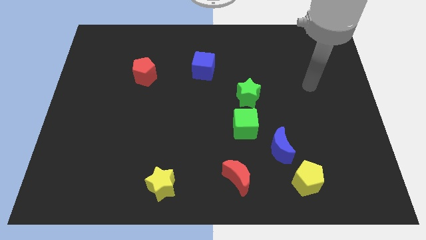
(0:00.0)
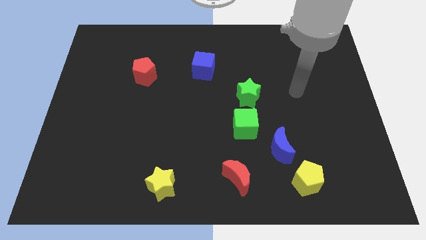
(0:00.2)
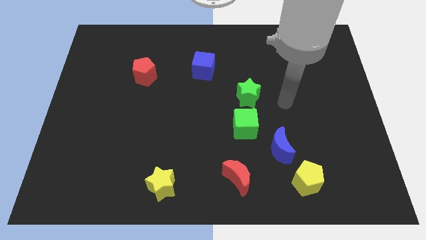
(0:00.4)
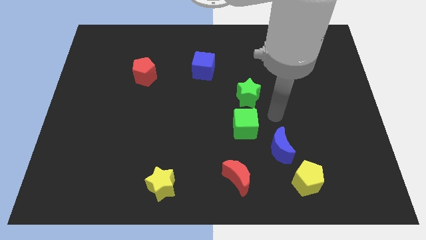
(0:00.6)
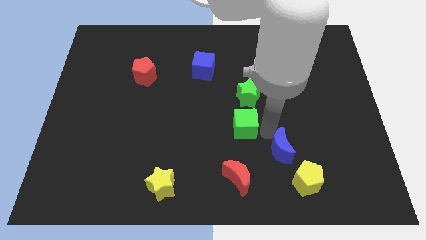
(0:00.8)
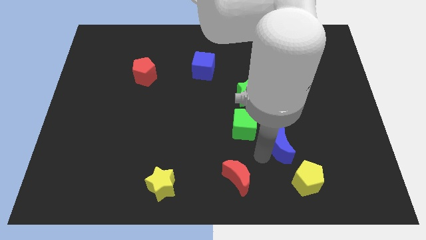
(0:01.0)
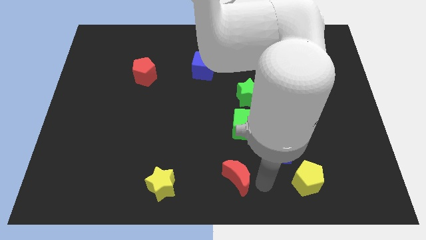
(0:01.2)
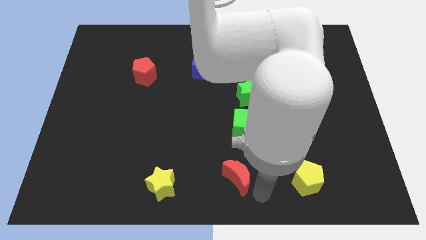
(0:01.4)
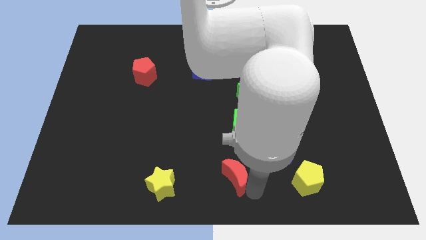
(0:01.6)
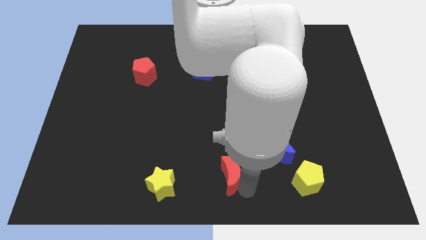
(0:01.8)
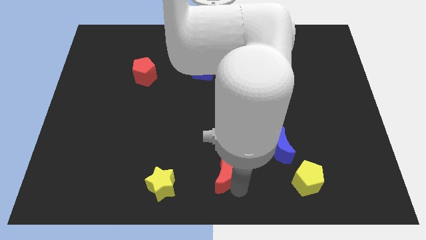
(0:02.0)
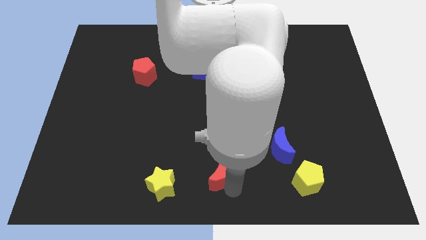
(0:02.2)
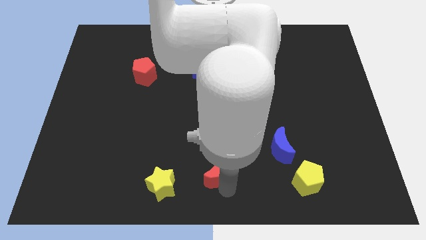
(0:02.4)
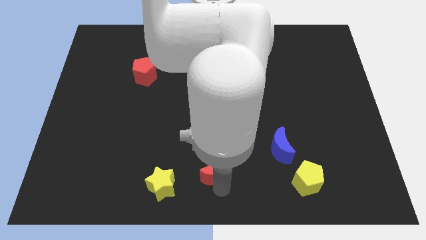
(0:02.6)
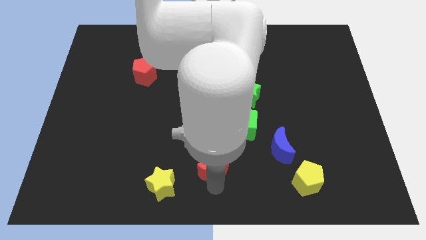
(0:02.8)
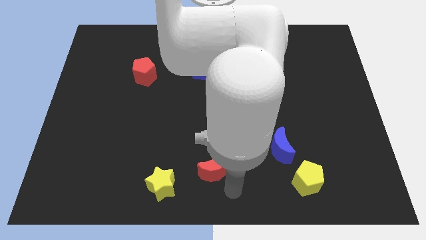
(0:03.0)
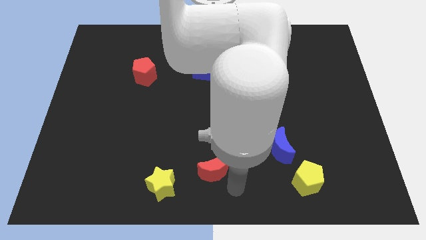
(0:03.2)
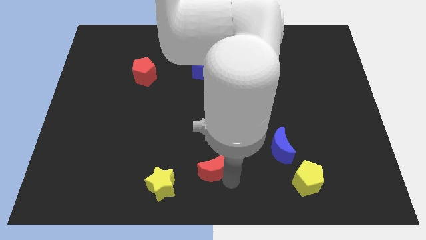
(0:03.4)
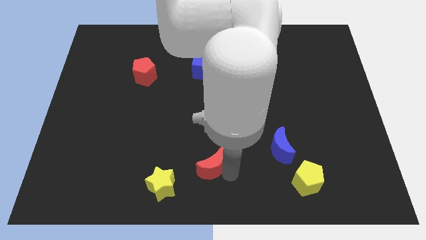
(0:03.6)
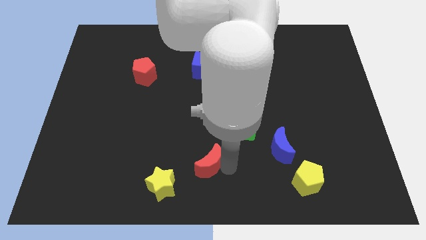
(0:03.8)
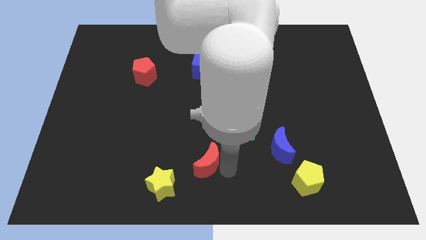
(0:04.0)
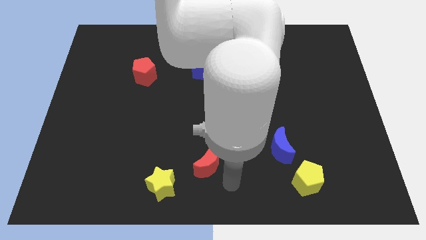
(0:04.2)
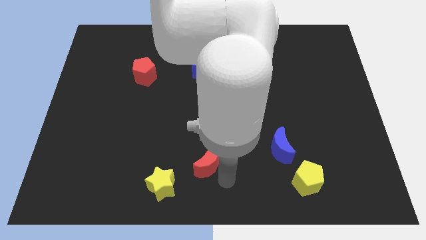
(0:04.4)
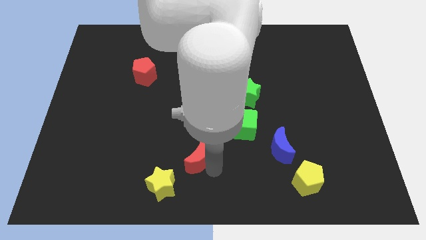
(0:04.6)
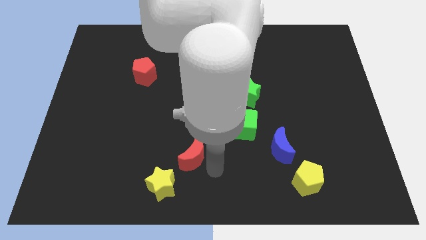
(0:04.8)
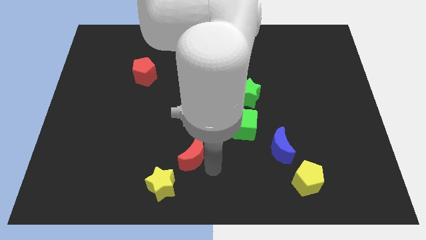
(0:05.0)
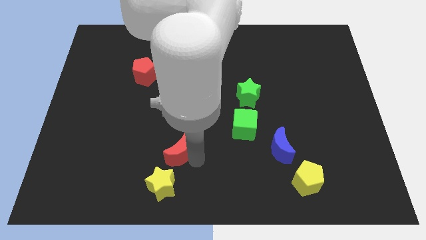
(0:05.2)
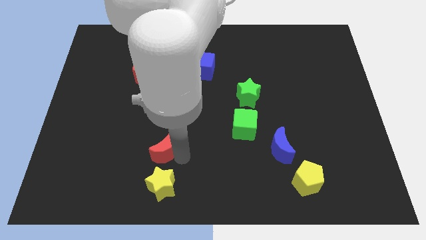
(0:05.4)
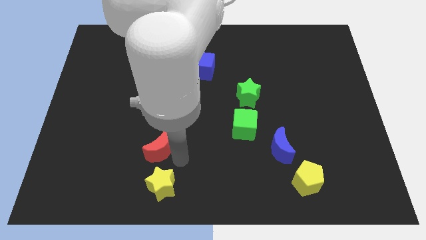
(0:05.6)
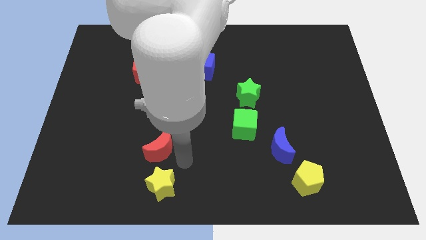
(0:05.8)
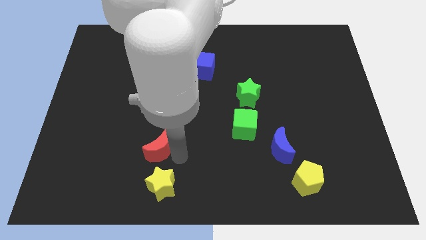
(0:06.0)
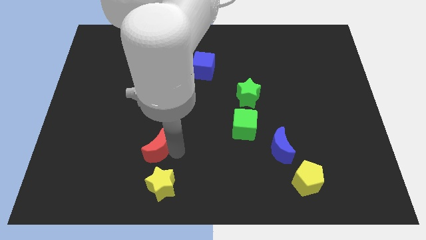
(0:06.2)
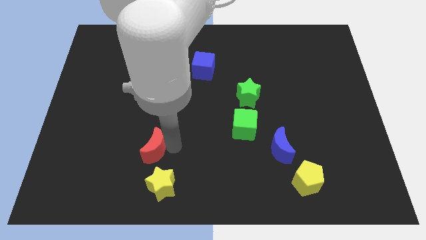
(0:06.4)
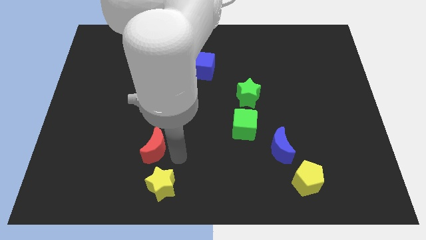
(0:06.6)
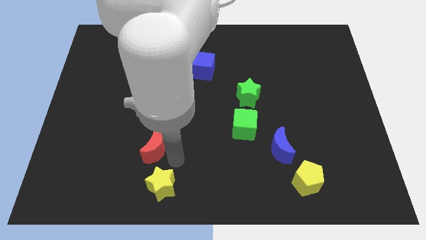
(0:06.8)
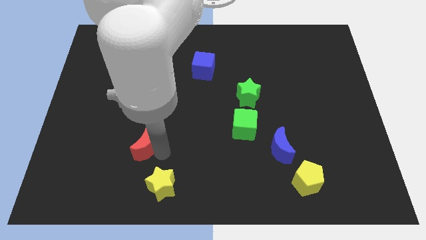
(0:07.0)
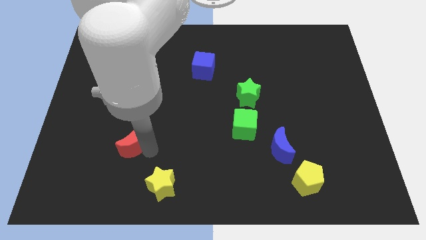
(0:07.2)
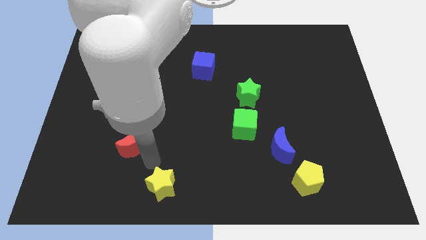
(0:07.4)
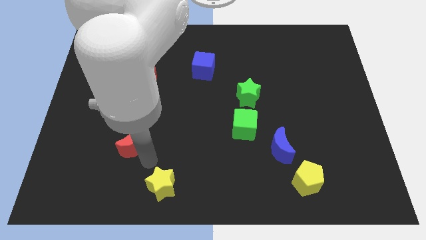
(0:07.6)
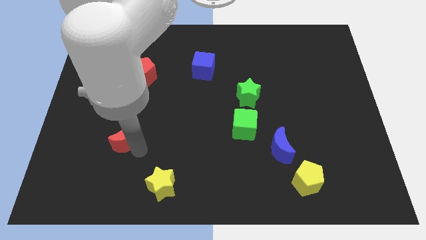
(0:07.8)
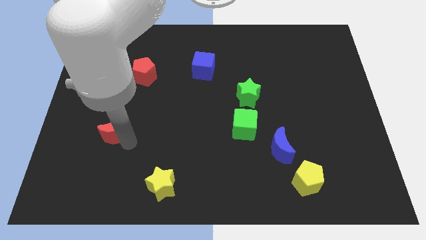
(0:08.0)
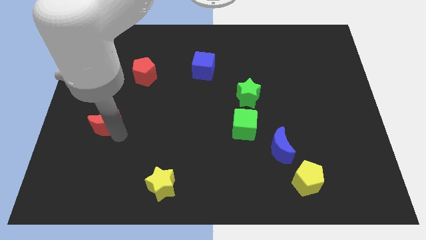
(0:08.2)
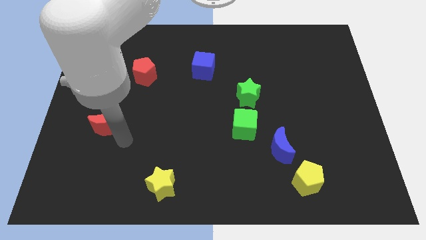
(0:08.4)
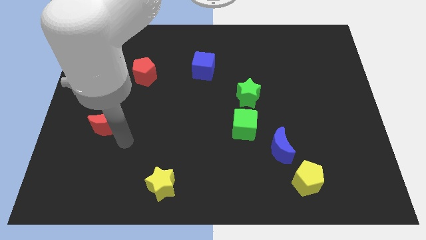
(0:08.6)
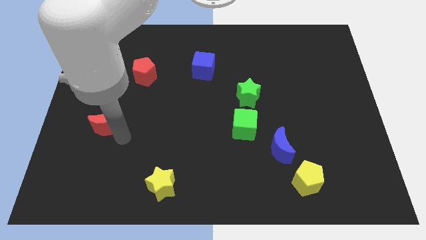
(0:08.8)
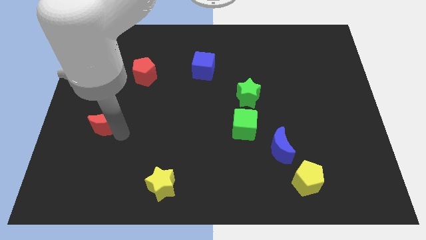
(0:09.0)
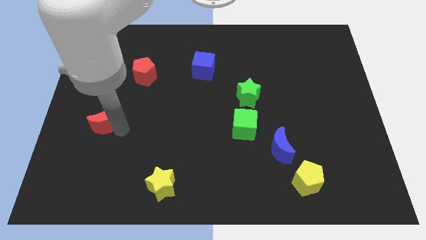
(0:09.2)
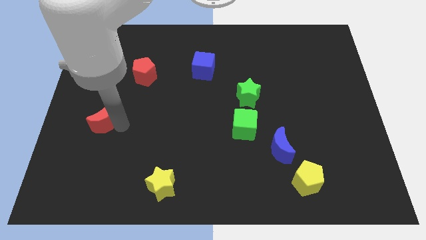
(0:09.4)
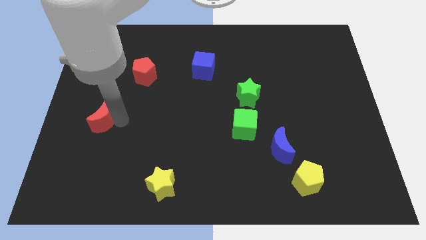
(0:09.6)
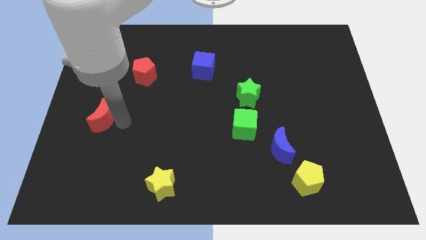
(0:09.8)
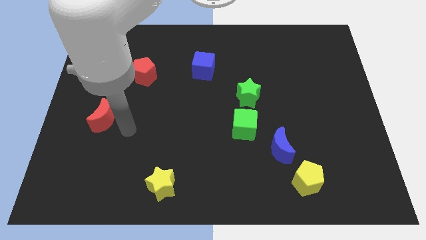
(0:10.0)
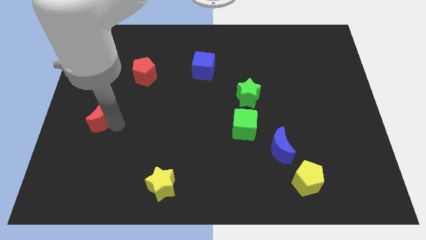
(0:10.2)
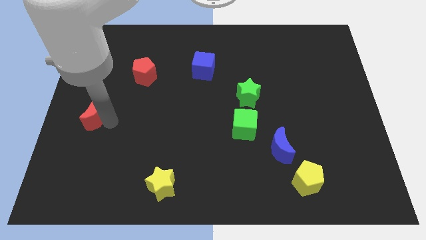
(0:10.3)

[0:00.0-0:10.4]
move the red moon to the left side
